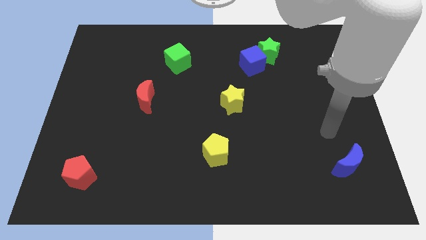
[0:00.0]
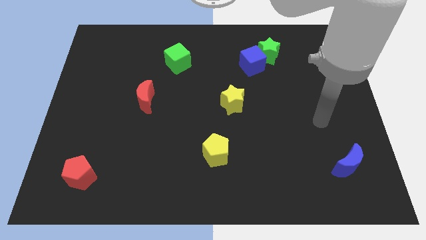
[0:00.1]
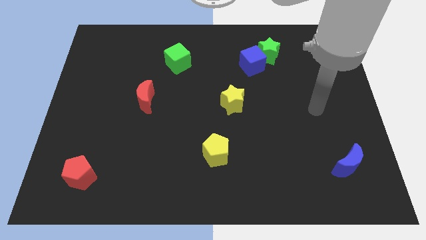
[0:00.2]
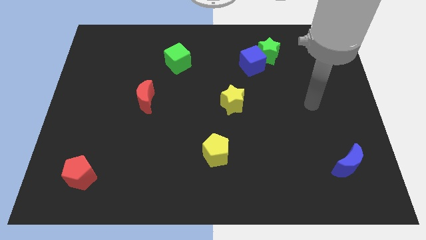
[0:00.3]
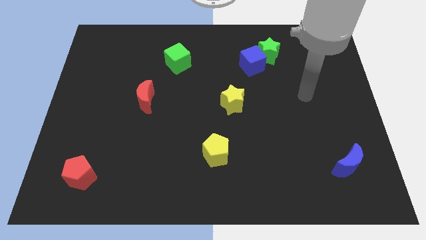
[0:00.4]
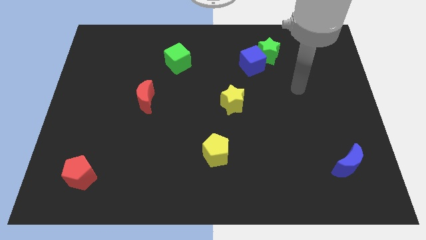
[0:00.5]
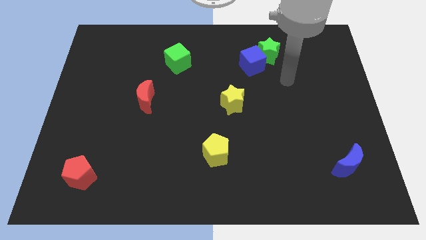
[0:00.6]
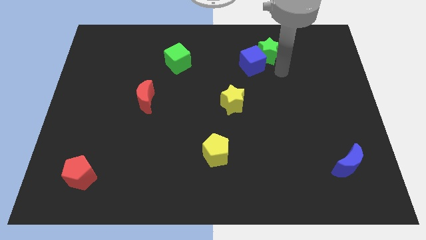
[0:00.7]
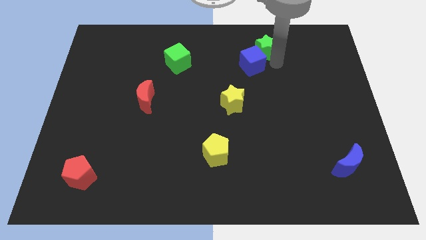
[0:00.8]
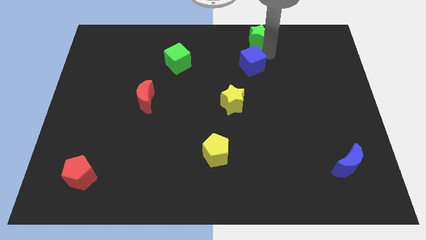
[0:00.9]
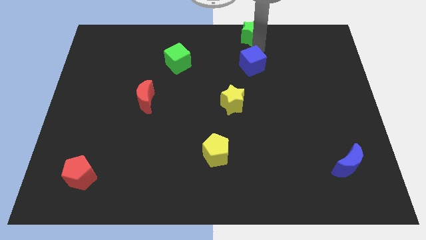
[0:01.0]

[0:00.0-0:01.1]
separate the blue cube from the green star

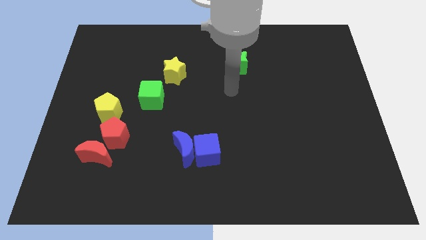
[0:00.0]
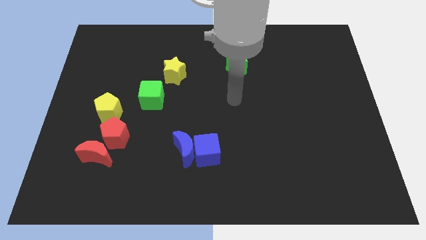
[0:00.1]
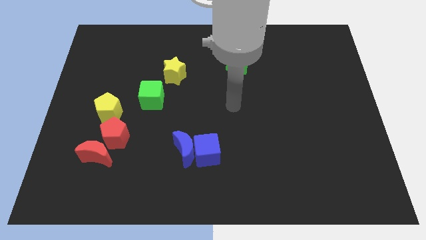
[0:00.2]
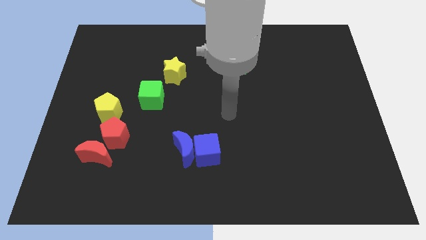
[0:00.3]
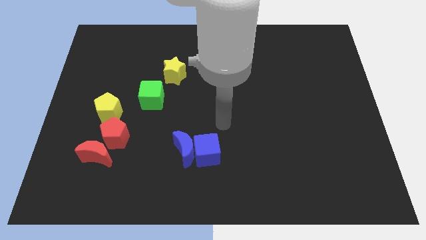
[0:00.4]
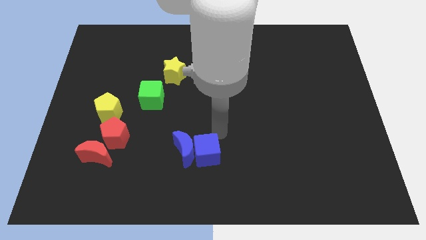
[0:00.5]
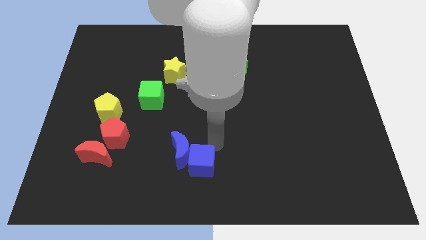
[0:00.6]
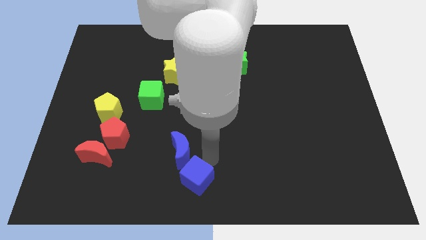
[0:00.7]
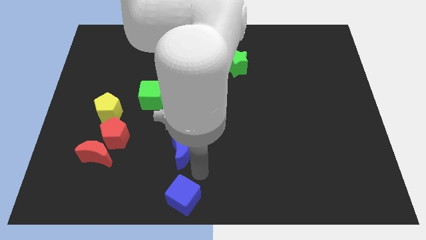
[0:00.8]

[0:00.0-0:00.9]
move the blue moon away from the blue cube

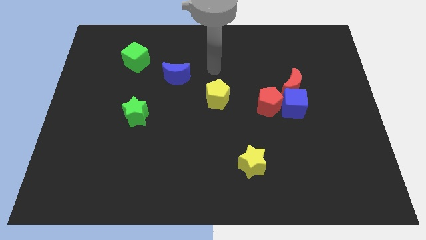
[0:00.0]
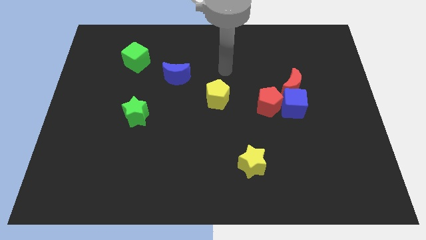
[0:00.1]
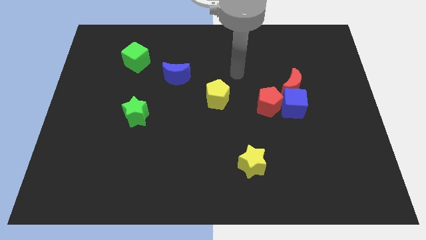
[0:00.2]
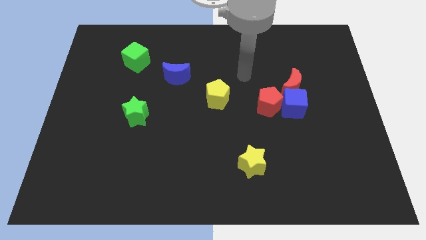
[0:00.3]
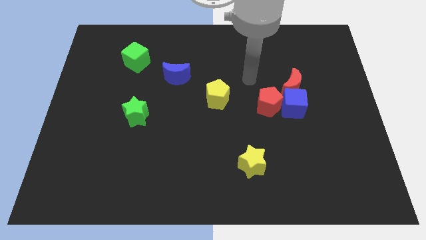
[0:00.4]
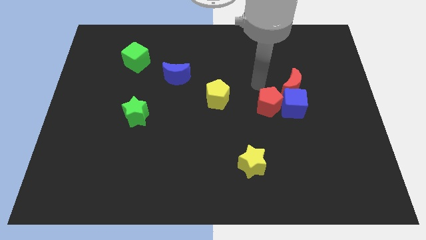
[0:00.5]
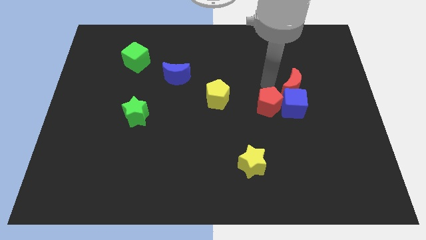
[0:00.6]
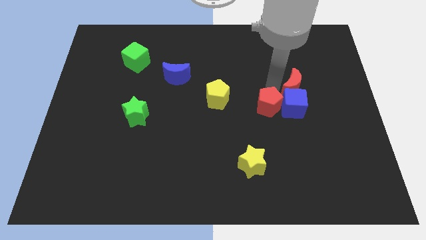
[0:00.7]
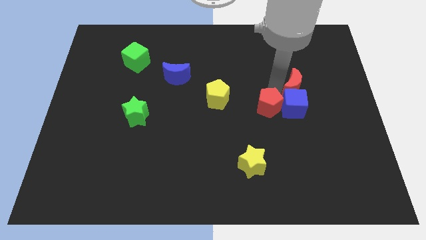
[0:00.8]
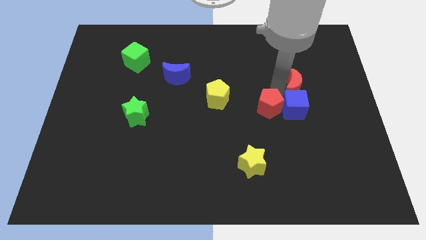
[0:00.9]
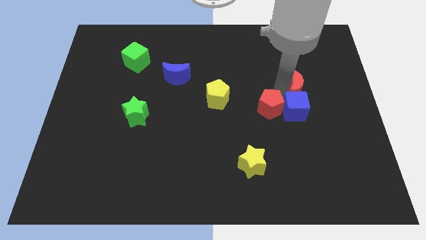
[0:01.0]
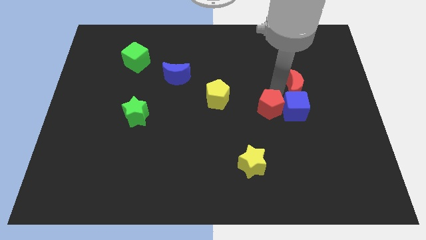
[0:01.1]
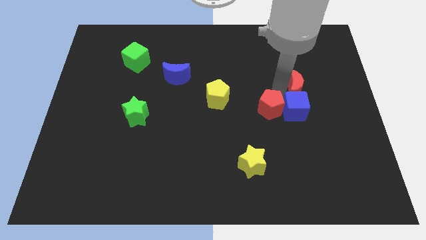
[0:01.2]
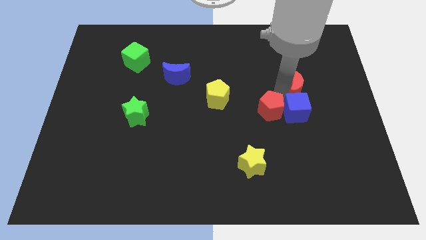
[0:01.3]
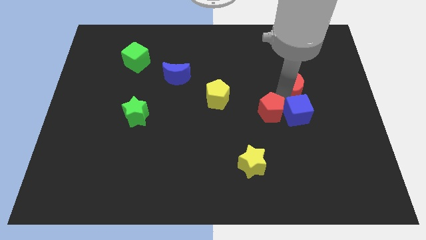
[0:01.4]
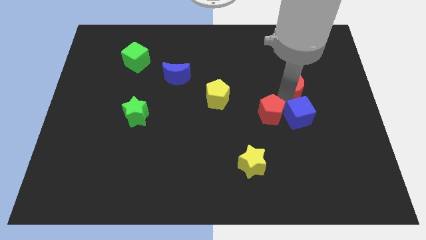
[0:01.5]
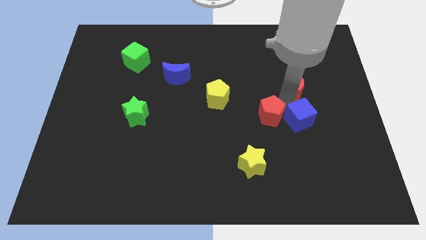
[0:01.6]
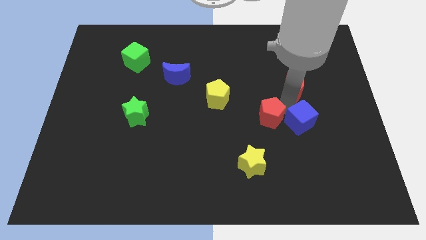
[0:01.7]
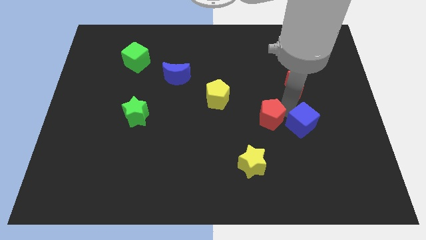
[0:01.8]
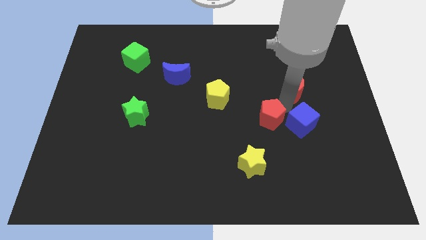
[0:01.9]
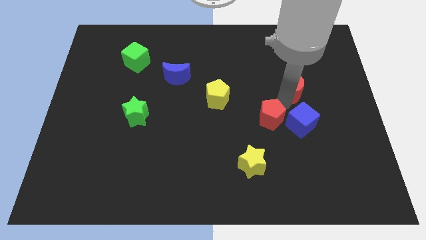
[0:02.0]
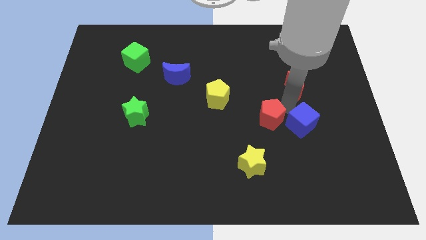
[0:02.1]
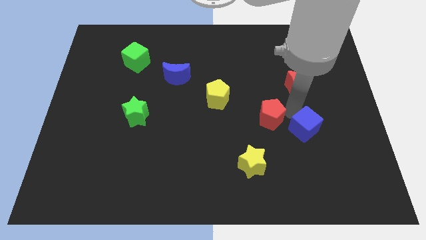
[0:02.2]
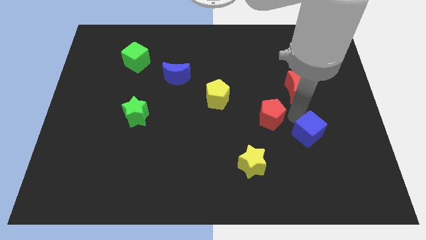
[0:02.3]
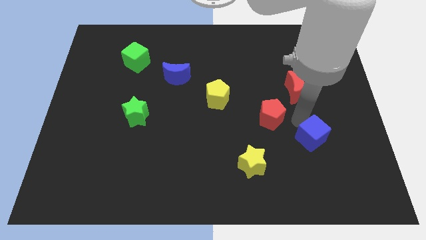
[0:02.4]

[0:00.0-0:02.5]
move the blue cube away from the red moon and red pentagon

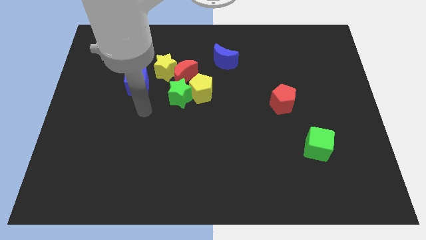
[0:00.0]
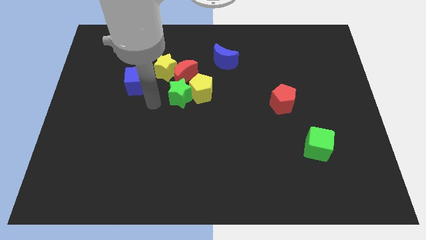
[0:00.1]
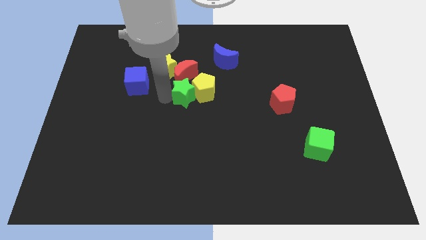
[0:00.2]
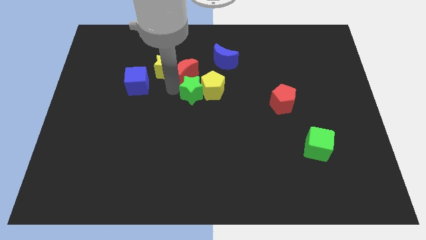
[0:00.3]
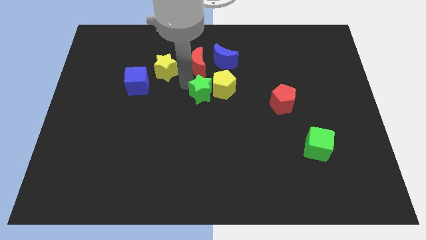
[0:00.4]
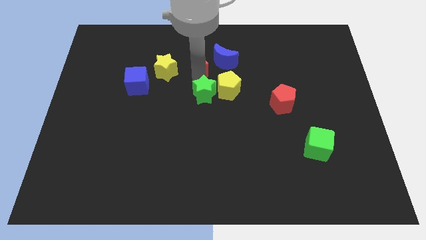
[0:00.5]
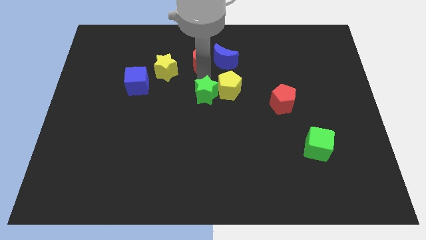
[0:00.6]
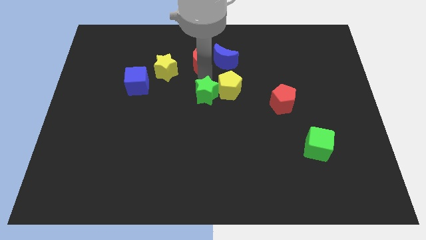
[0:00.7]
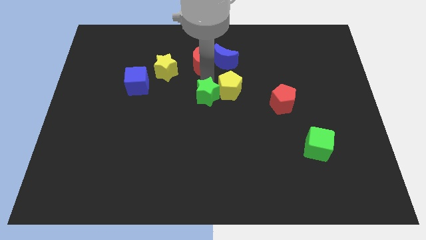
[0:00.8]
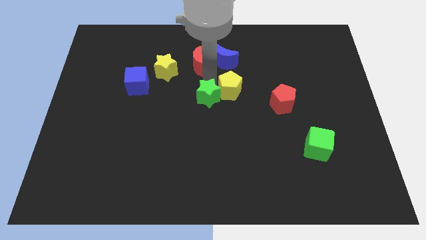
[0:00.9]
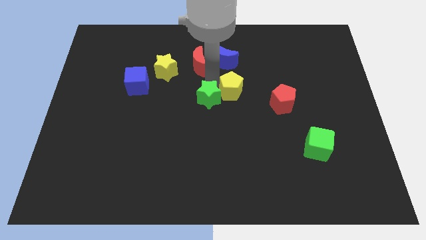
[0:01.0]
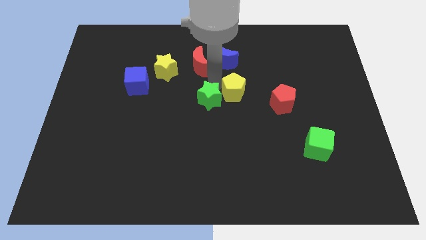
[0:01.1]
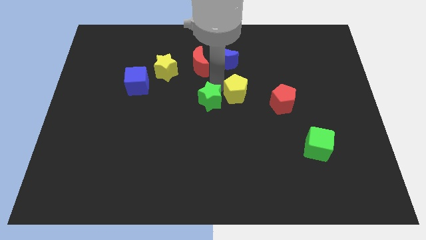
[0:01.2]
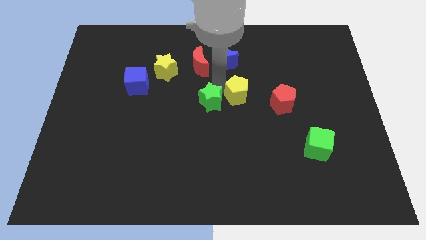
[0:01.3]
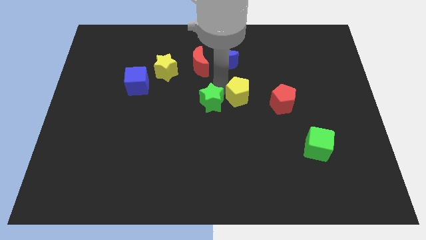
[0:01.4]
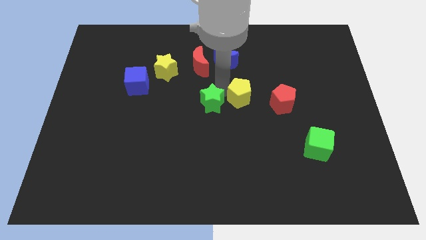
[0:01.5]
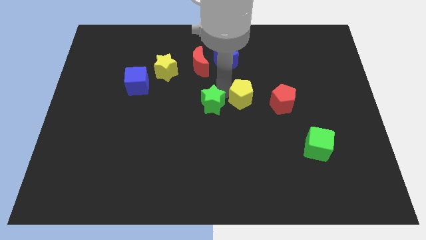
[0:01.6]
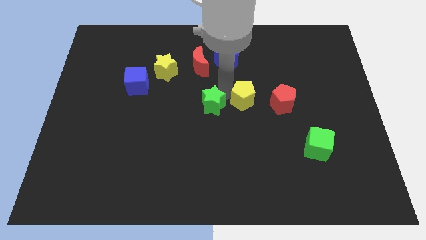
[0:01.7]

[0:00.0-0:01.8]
separate the yellow pentagon from the green star and red moon

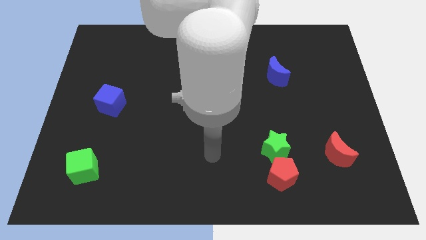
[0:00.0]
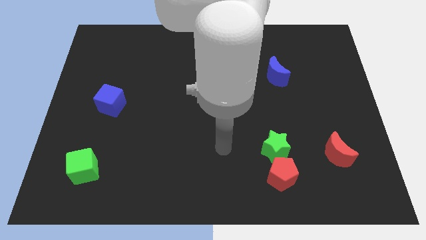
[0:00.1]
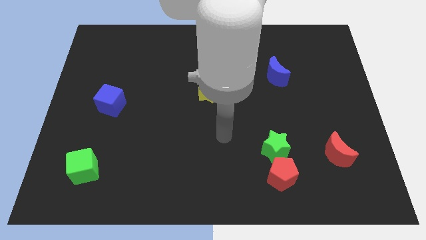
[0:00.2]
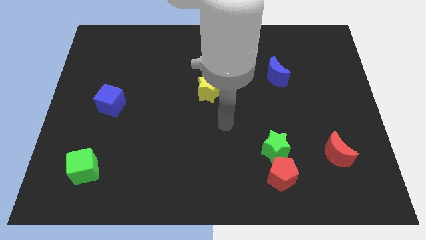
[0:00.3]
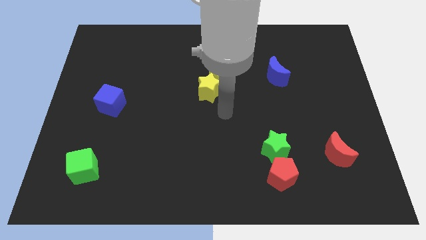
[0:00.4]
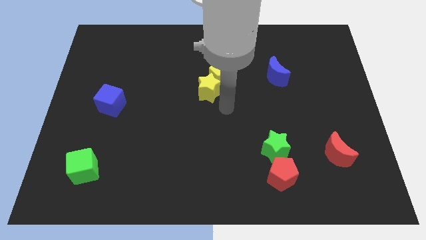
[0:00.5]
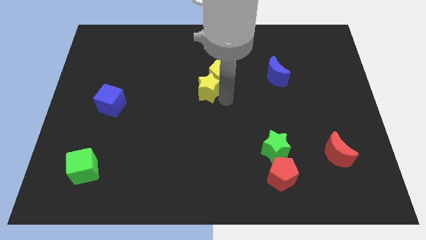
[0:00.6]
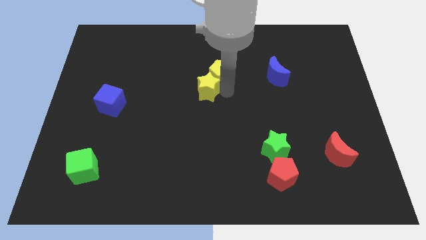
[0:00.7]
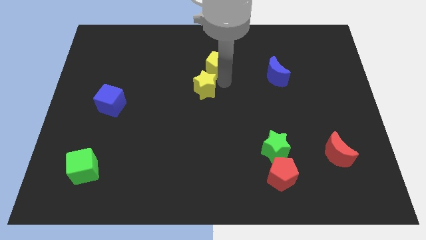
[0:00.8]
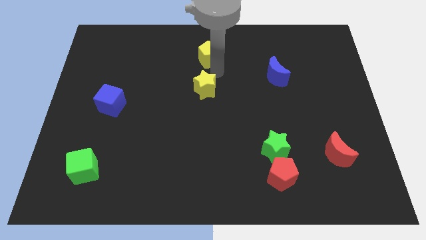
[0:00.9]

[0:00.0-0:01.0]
separate the yellow star from the yellow pentagon

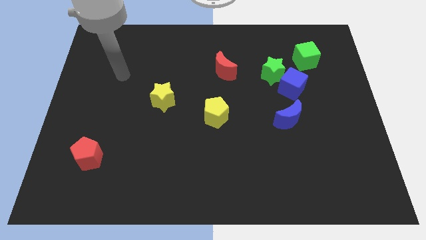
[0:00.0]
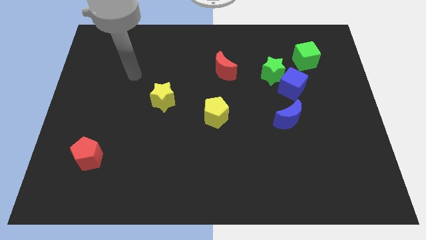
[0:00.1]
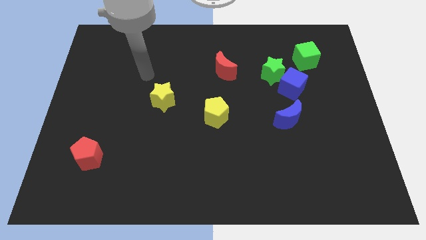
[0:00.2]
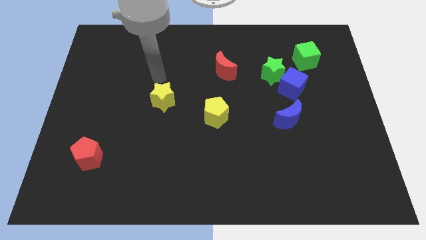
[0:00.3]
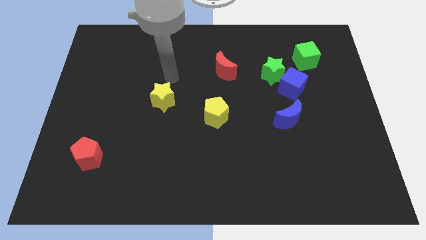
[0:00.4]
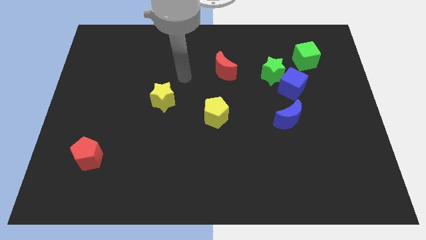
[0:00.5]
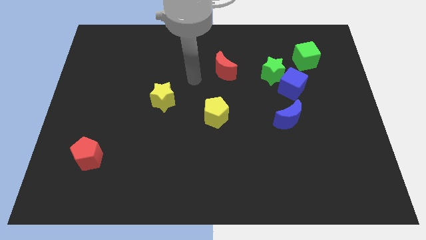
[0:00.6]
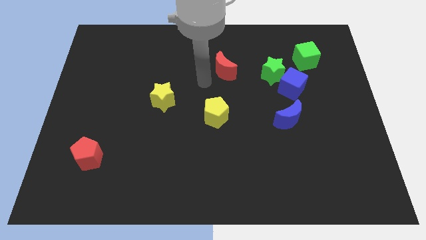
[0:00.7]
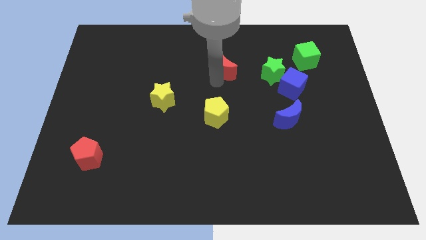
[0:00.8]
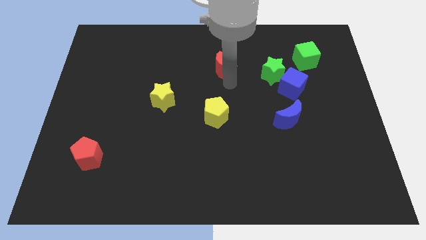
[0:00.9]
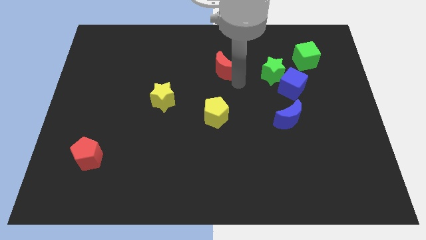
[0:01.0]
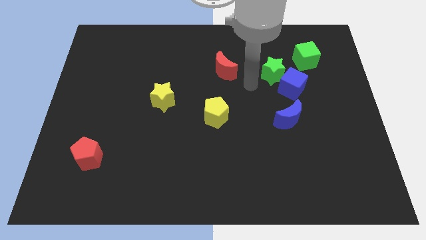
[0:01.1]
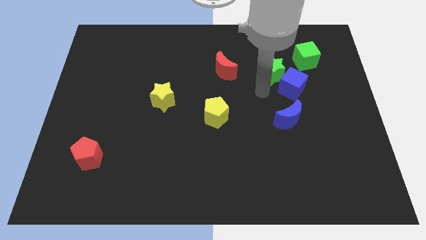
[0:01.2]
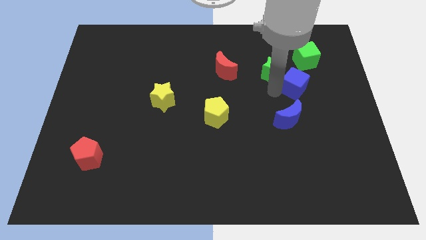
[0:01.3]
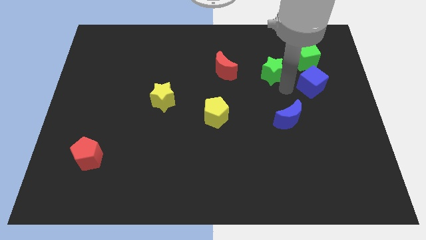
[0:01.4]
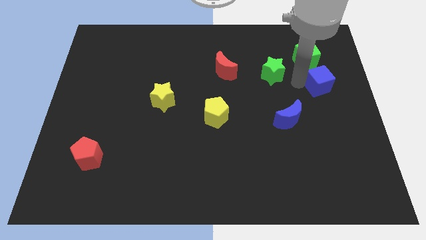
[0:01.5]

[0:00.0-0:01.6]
separate the green star from the blue cube

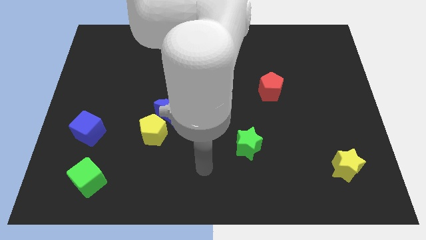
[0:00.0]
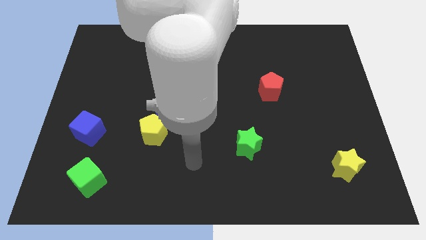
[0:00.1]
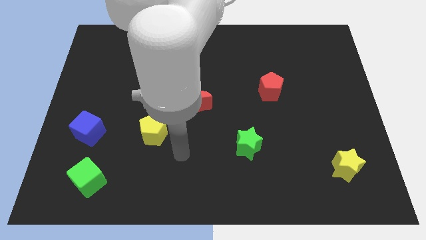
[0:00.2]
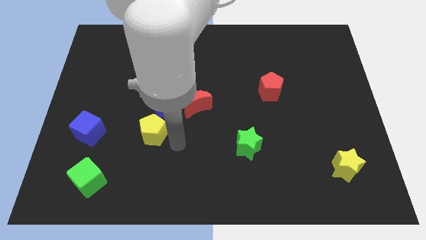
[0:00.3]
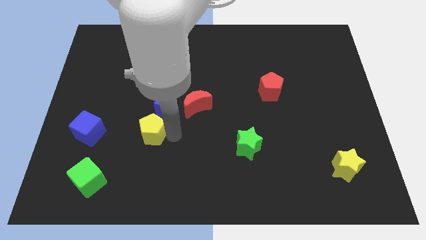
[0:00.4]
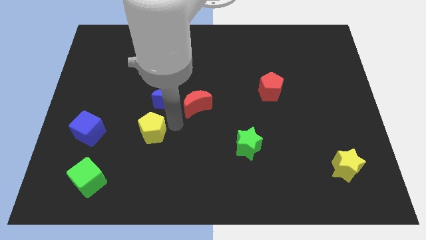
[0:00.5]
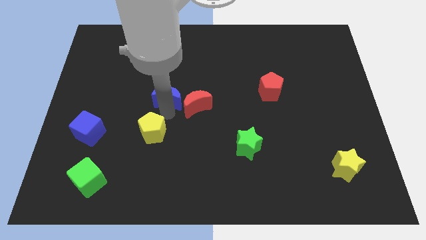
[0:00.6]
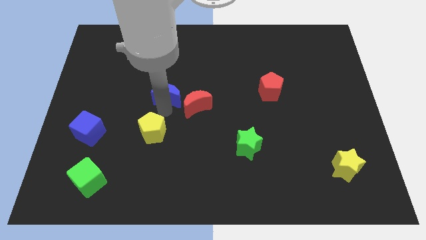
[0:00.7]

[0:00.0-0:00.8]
pull the yellow pentagon apart from the blue moon
